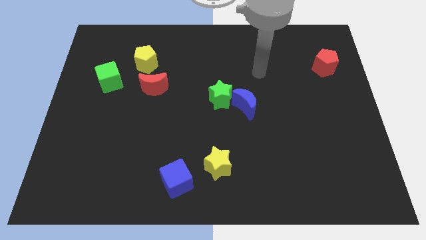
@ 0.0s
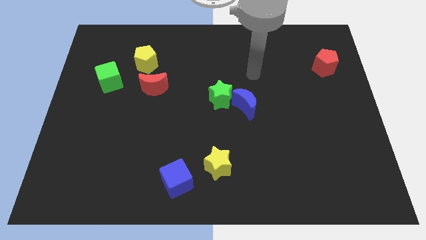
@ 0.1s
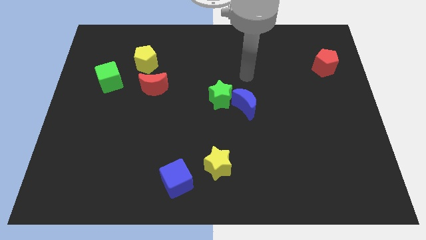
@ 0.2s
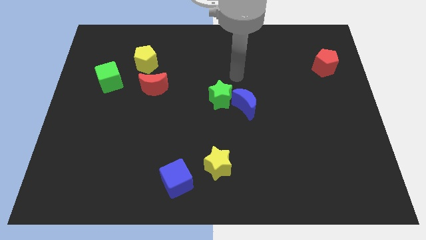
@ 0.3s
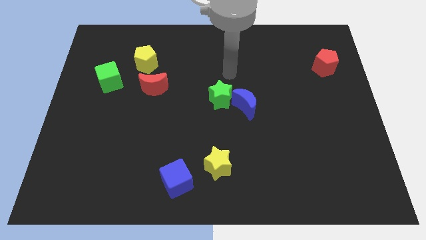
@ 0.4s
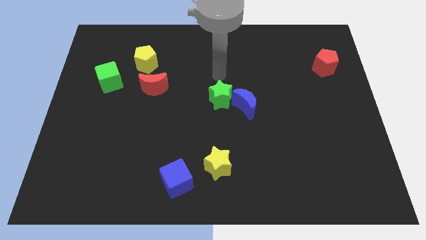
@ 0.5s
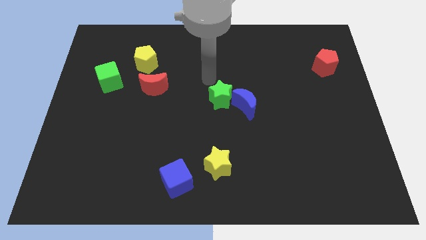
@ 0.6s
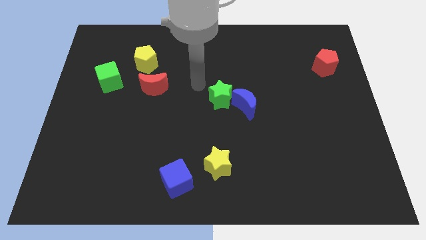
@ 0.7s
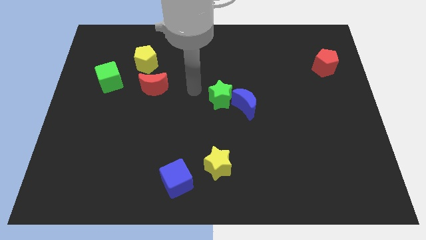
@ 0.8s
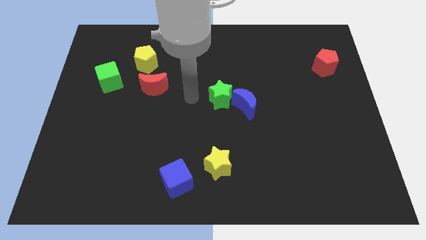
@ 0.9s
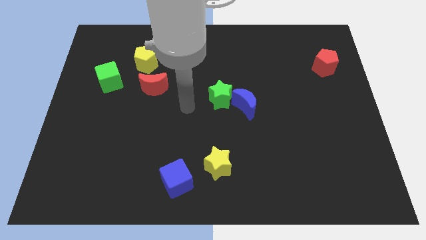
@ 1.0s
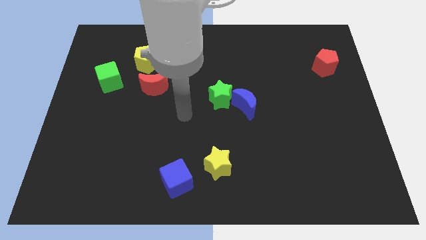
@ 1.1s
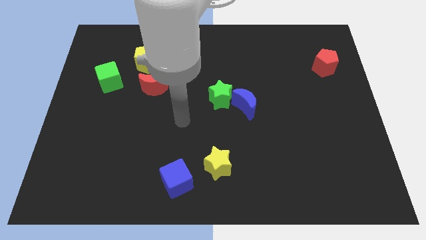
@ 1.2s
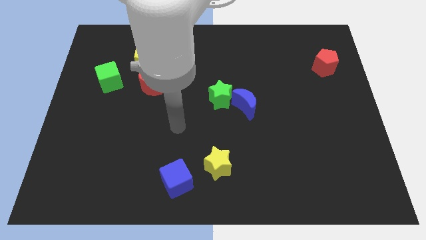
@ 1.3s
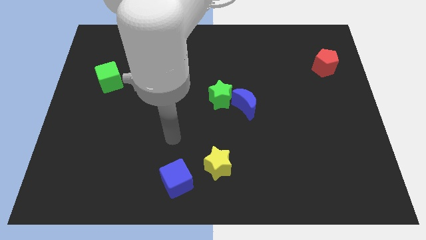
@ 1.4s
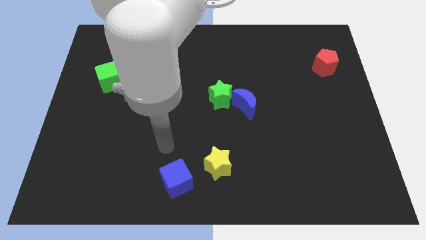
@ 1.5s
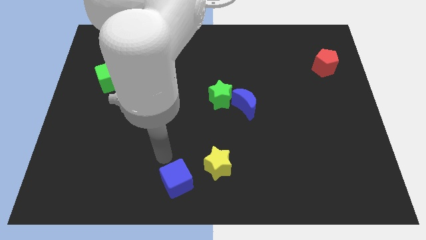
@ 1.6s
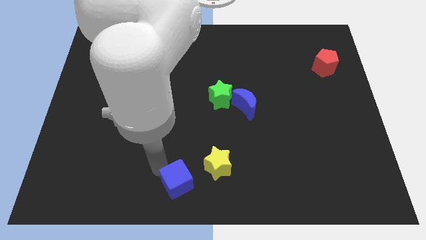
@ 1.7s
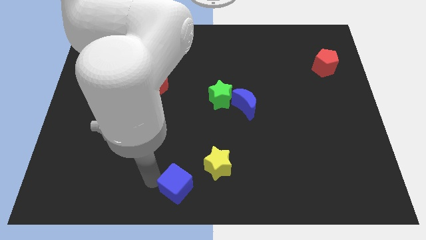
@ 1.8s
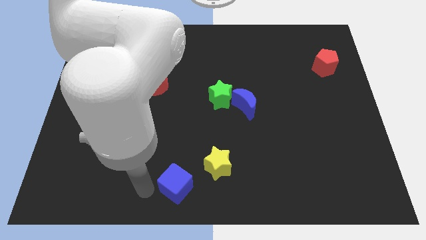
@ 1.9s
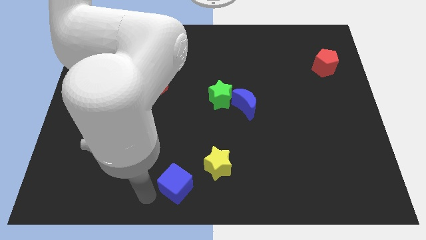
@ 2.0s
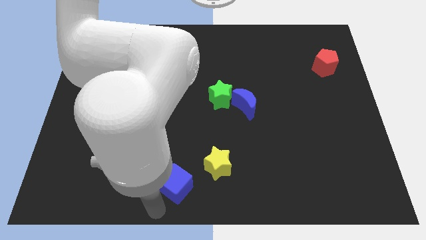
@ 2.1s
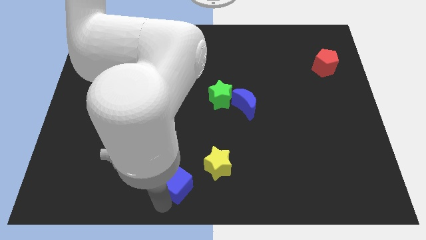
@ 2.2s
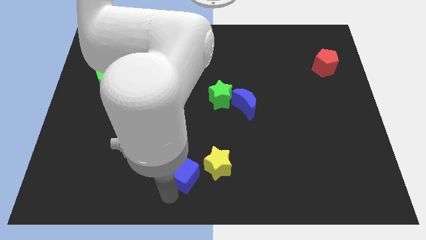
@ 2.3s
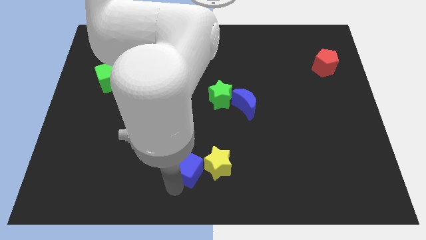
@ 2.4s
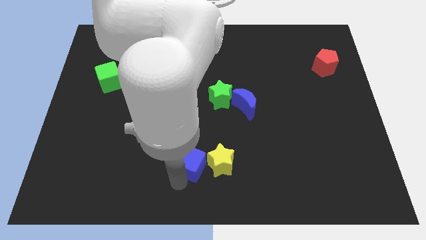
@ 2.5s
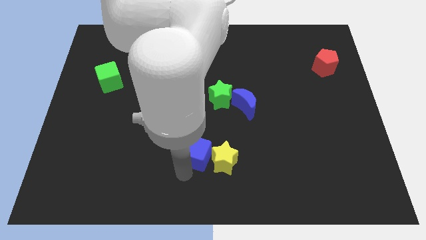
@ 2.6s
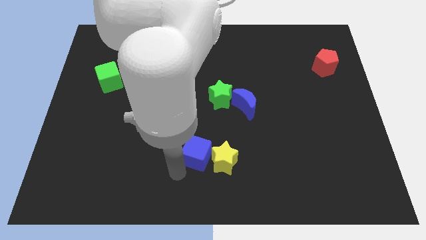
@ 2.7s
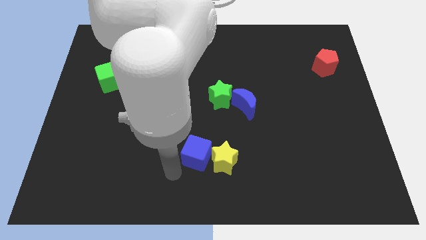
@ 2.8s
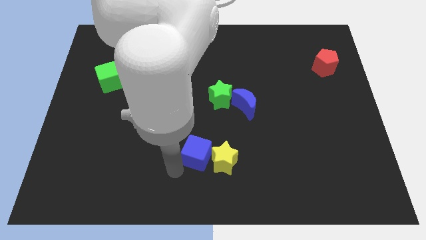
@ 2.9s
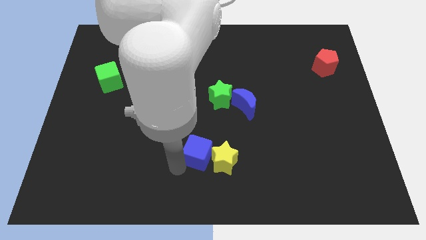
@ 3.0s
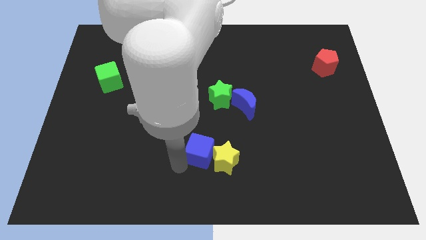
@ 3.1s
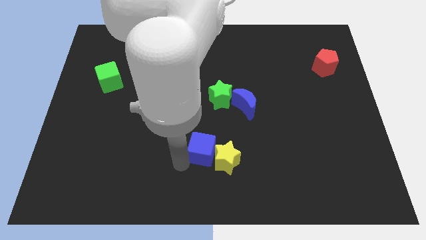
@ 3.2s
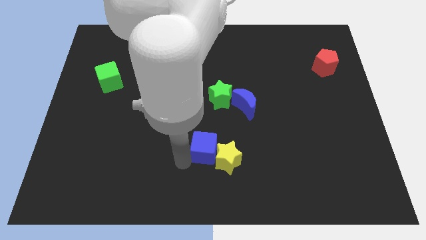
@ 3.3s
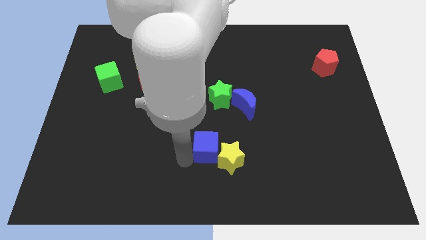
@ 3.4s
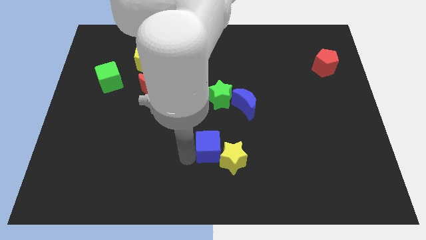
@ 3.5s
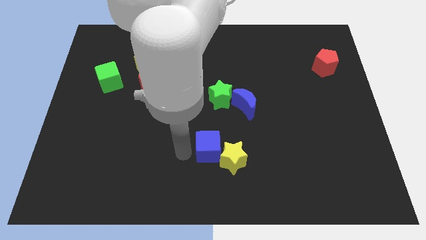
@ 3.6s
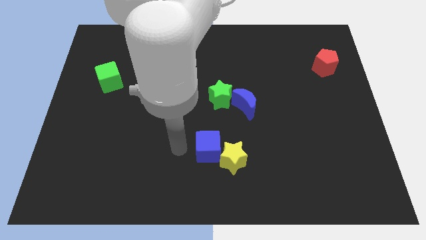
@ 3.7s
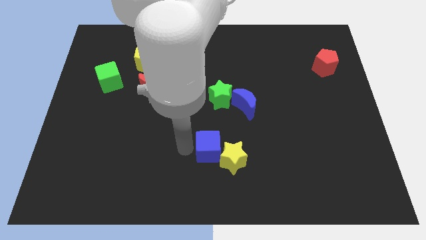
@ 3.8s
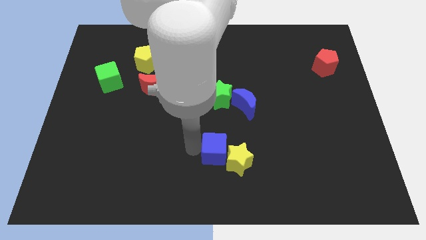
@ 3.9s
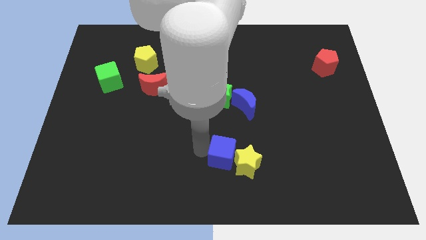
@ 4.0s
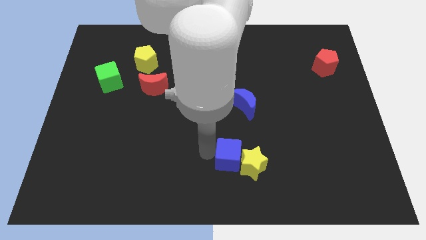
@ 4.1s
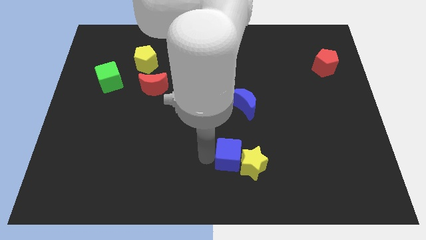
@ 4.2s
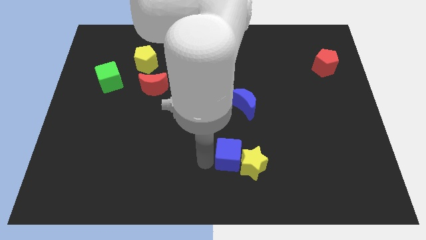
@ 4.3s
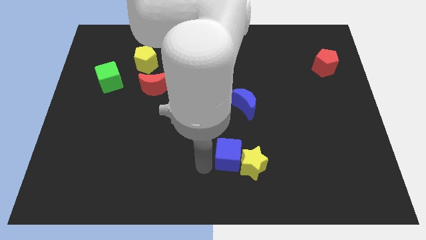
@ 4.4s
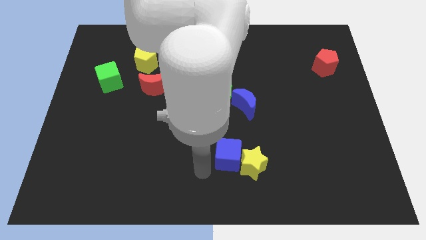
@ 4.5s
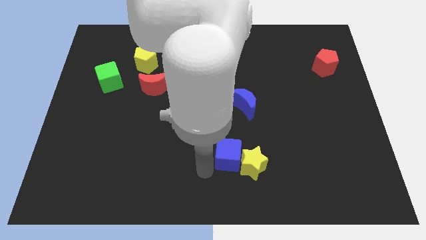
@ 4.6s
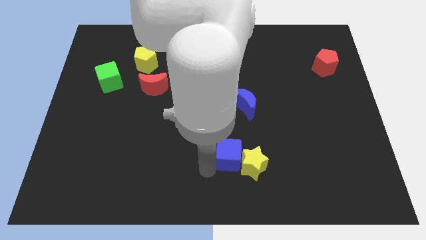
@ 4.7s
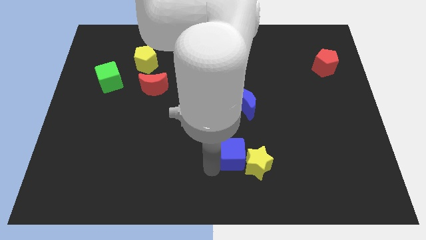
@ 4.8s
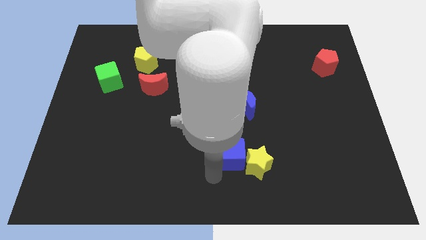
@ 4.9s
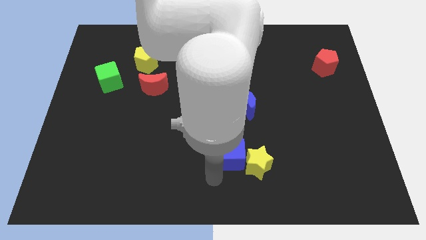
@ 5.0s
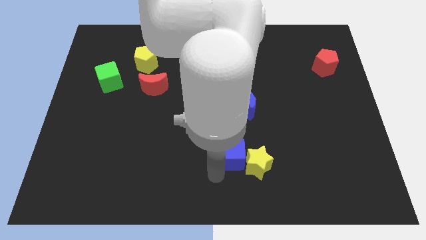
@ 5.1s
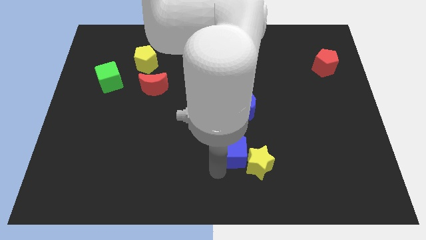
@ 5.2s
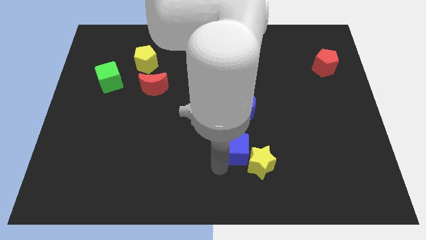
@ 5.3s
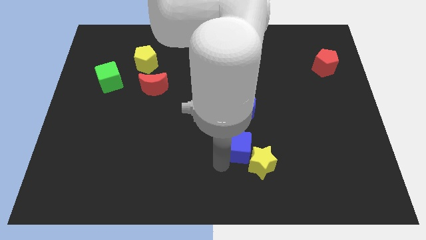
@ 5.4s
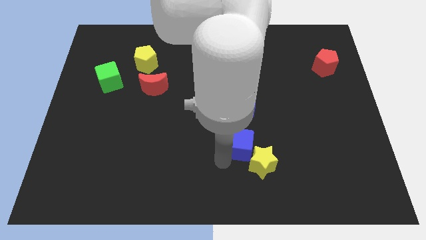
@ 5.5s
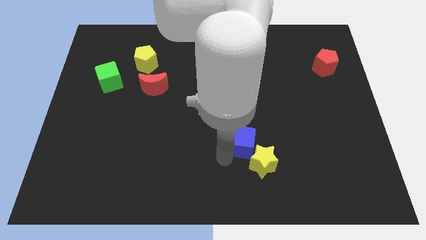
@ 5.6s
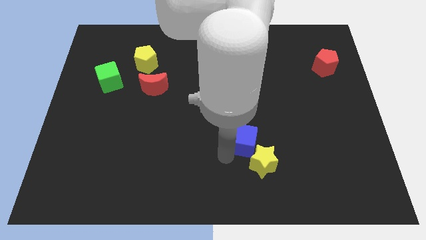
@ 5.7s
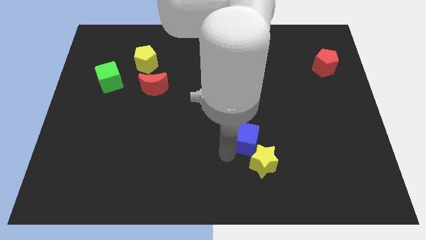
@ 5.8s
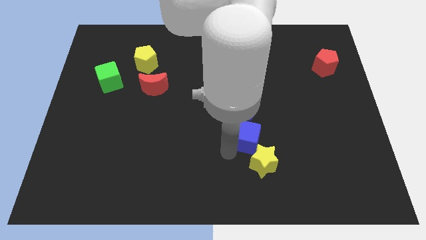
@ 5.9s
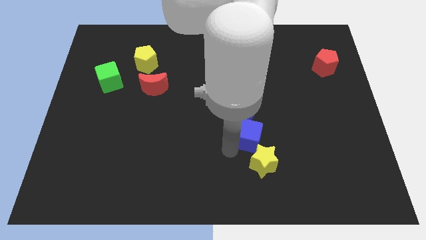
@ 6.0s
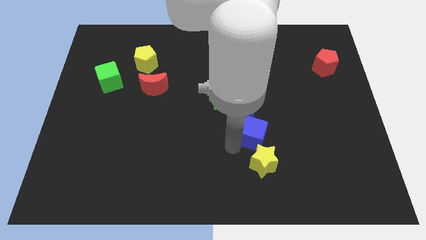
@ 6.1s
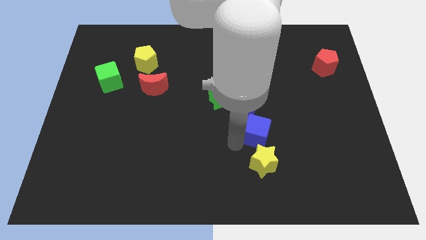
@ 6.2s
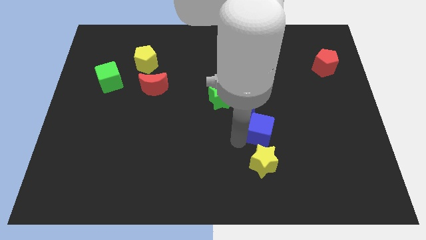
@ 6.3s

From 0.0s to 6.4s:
push the blue cube diagonally upwards and to the right

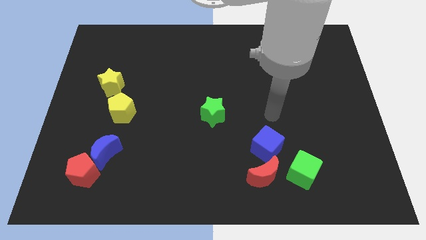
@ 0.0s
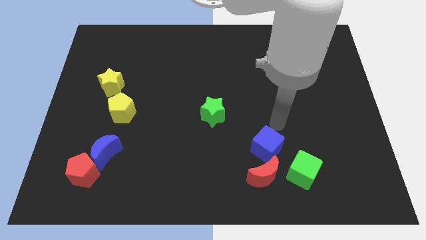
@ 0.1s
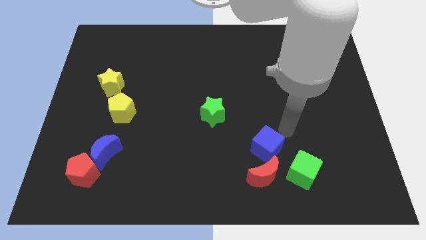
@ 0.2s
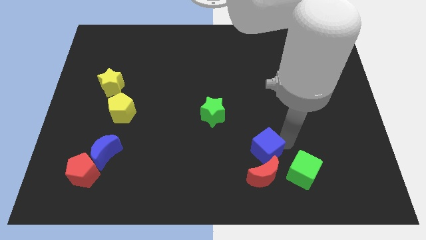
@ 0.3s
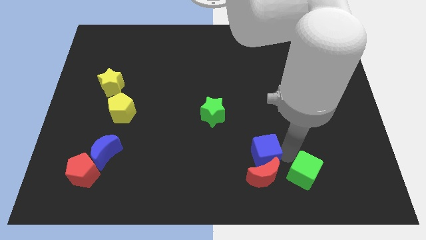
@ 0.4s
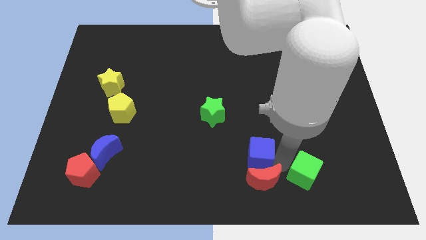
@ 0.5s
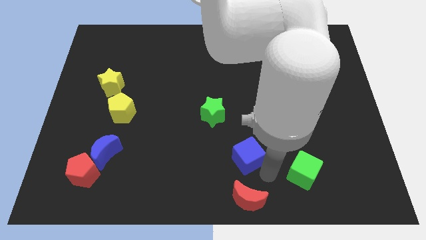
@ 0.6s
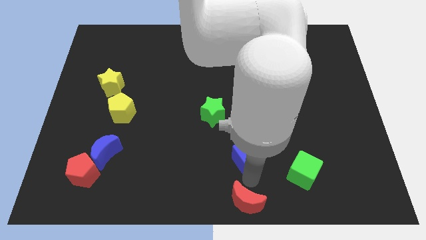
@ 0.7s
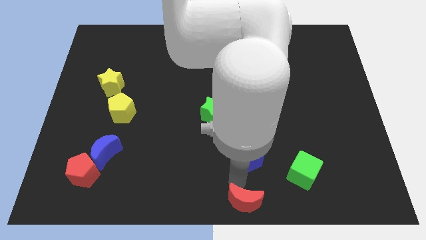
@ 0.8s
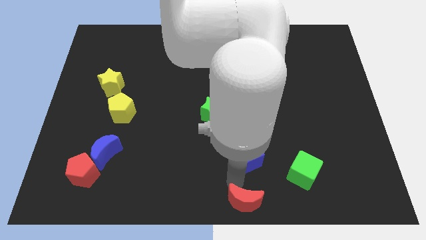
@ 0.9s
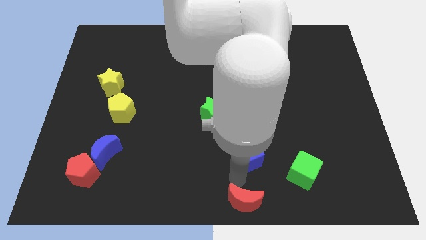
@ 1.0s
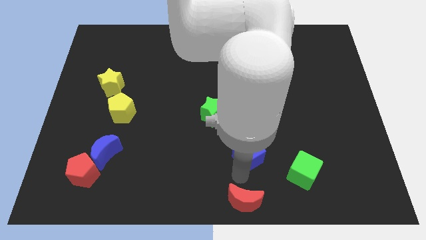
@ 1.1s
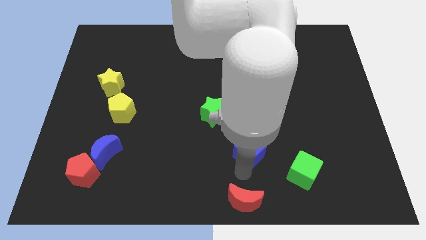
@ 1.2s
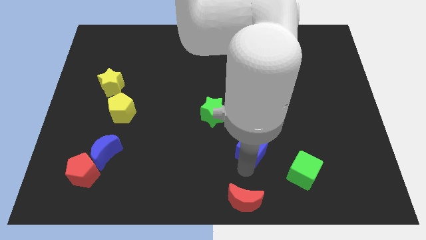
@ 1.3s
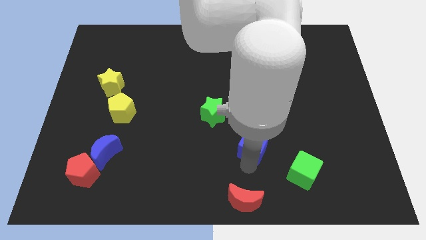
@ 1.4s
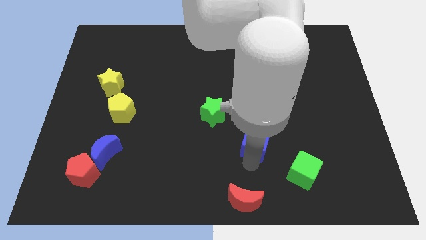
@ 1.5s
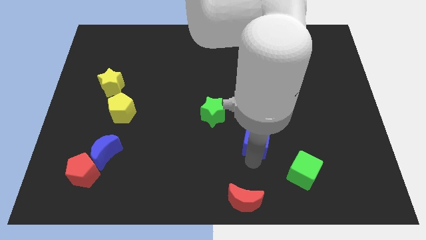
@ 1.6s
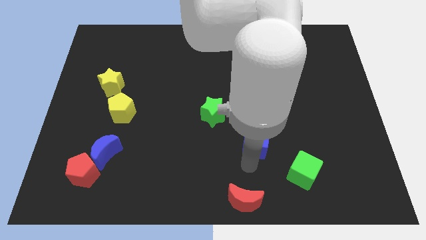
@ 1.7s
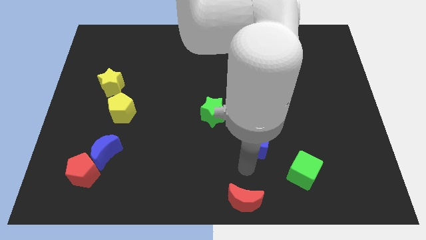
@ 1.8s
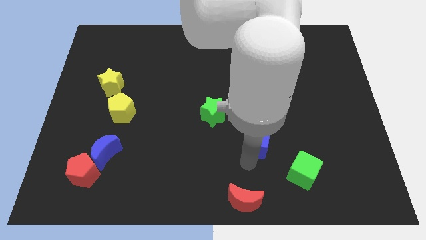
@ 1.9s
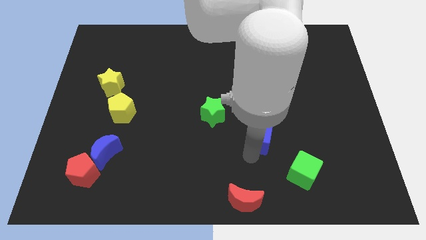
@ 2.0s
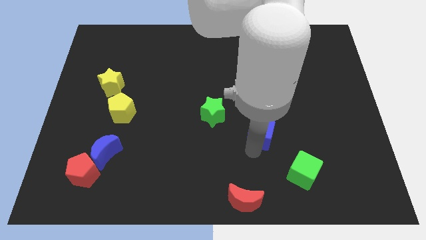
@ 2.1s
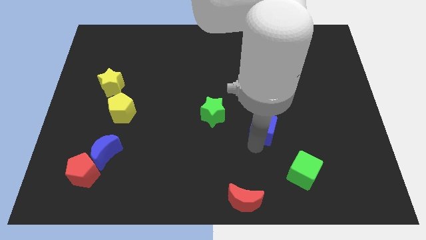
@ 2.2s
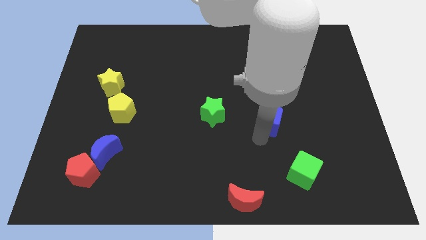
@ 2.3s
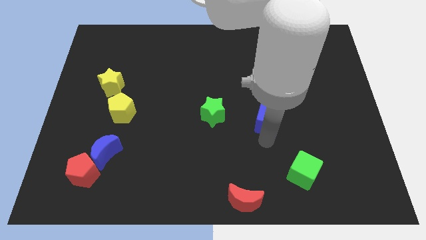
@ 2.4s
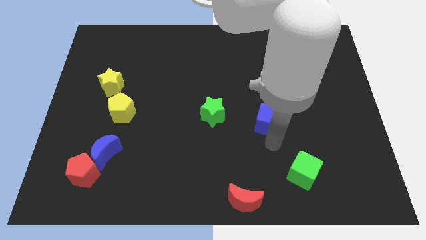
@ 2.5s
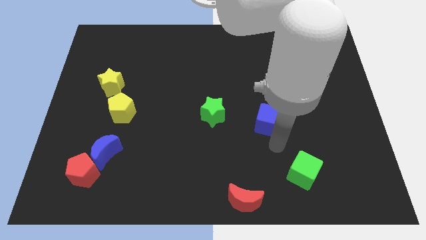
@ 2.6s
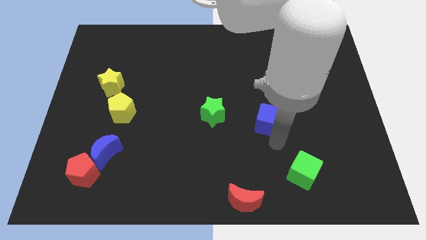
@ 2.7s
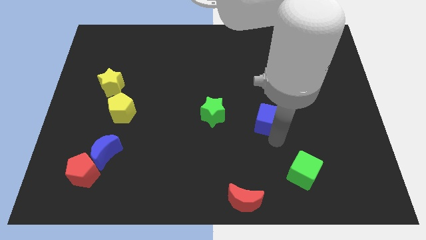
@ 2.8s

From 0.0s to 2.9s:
slightly move the blue cube up
